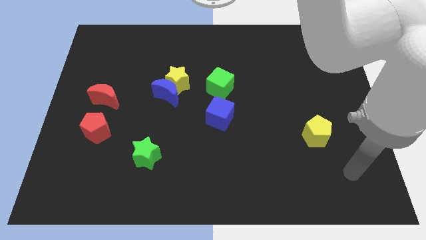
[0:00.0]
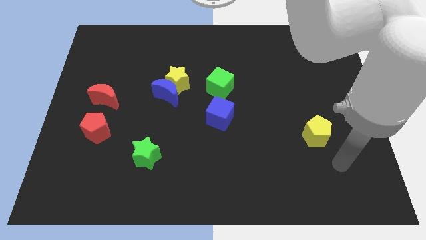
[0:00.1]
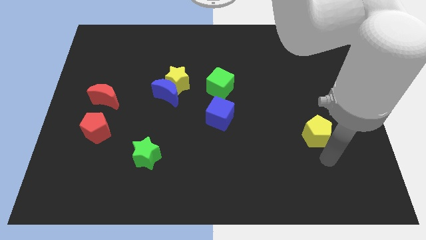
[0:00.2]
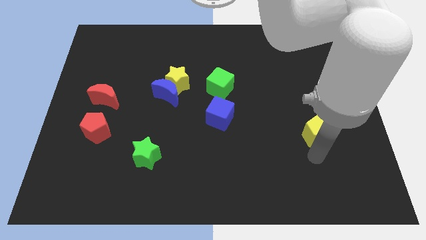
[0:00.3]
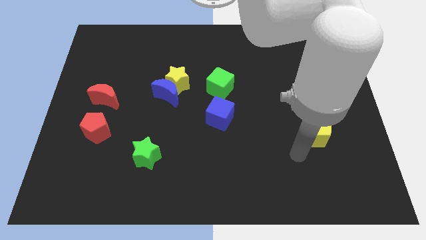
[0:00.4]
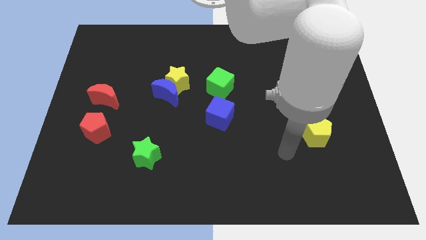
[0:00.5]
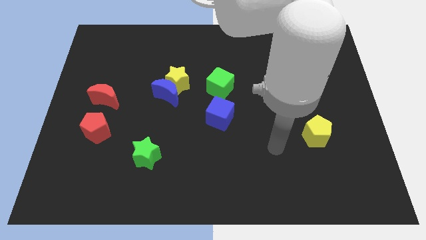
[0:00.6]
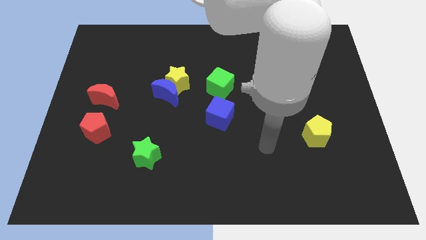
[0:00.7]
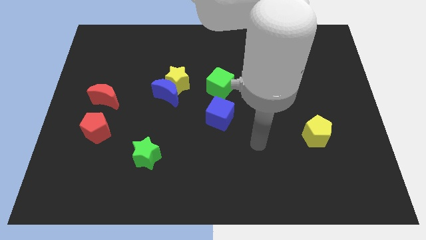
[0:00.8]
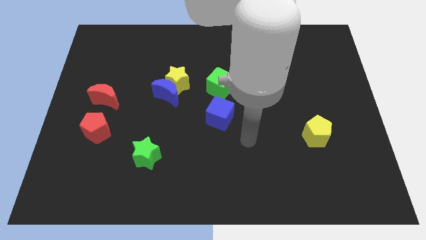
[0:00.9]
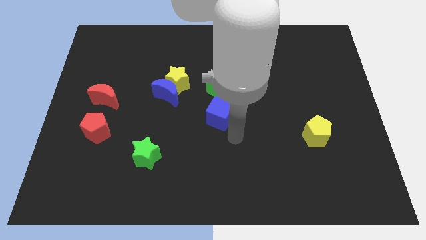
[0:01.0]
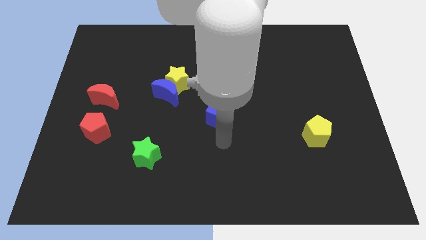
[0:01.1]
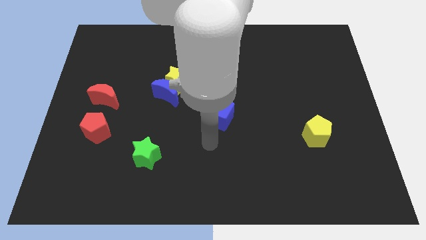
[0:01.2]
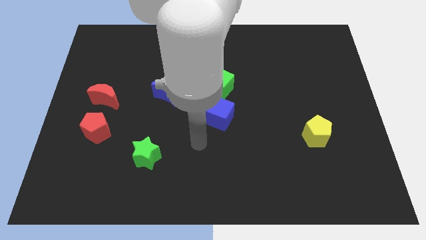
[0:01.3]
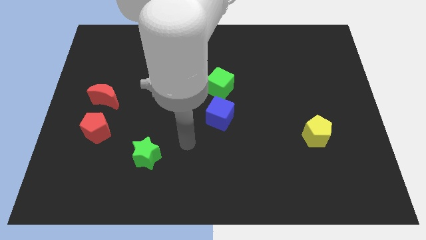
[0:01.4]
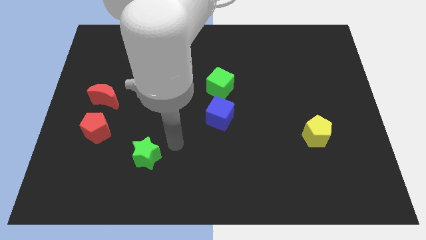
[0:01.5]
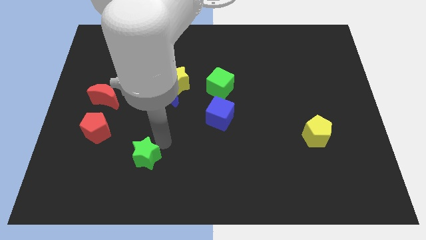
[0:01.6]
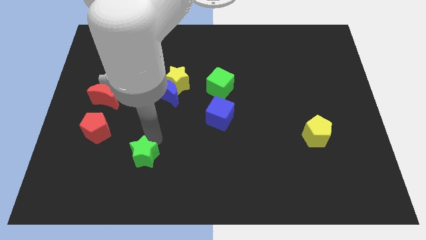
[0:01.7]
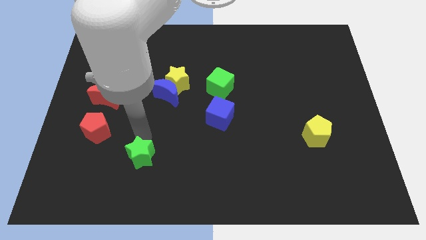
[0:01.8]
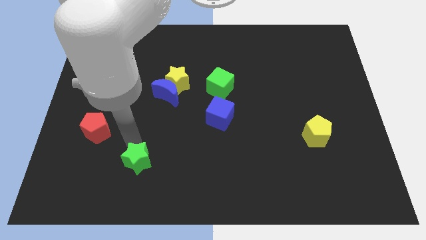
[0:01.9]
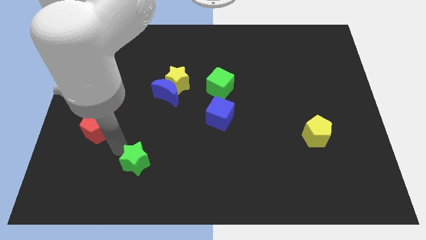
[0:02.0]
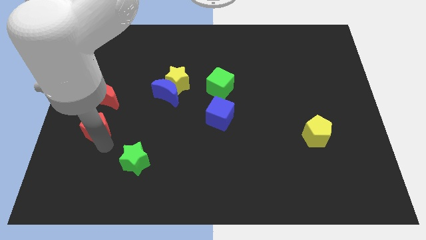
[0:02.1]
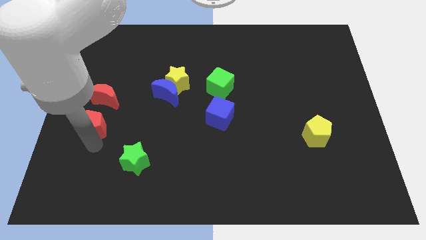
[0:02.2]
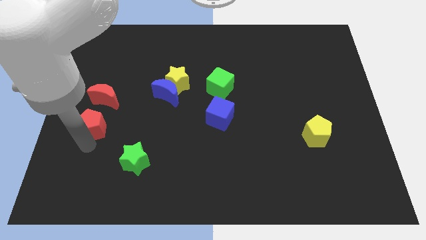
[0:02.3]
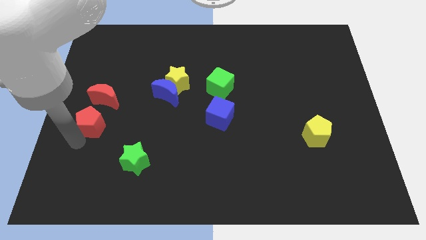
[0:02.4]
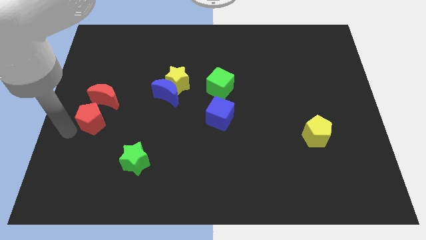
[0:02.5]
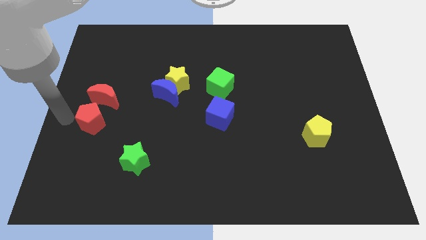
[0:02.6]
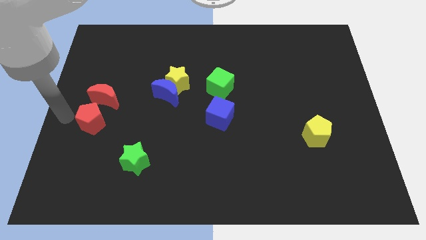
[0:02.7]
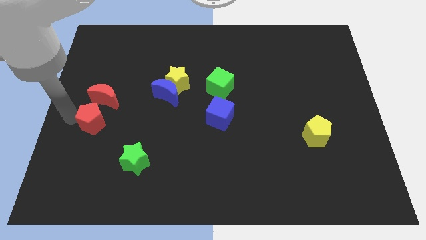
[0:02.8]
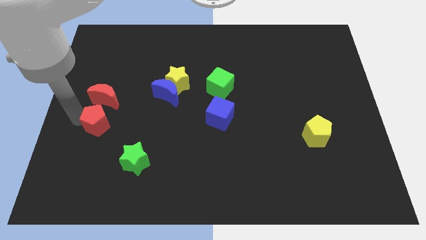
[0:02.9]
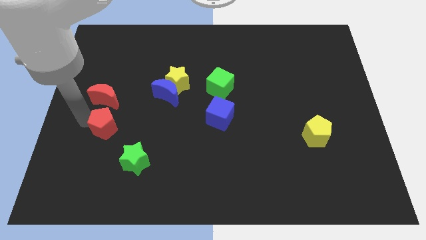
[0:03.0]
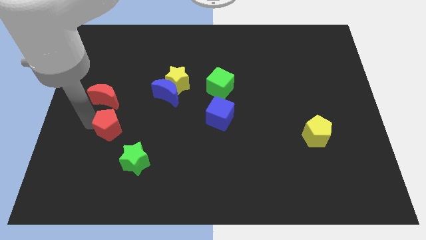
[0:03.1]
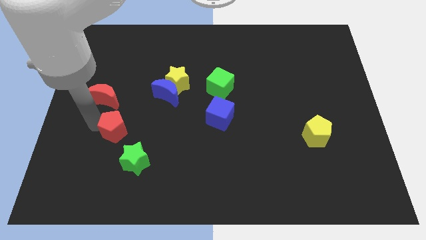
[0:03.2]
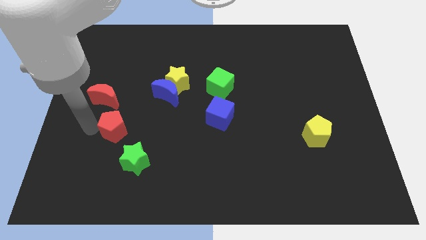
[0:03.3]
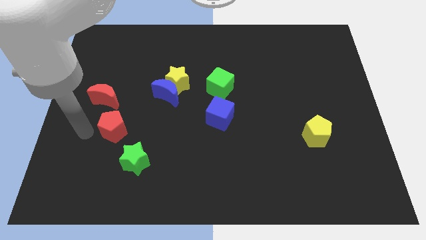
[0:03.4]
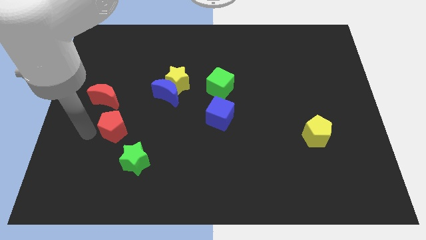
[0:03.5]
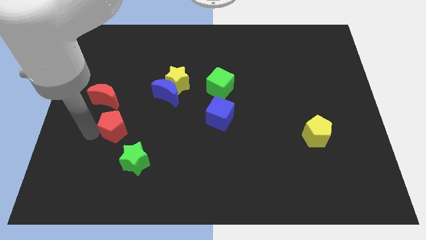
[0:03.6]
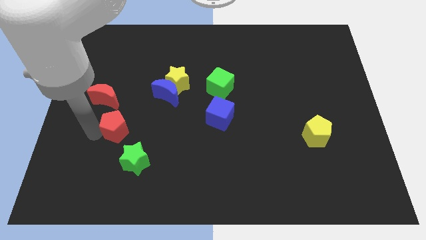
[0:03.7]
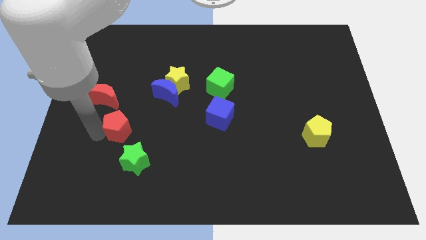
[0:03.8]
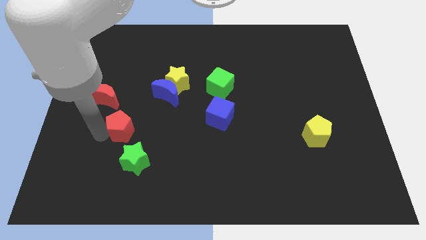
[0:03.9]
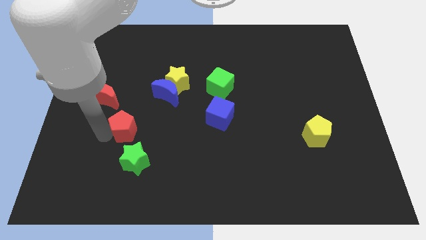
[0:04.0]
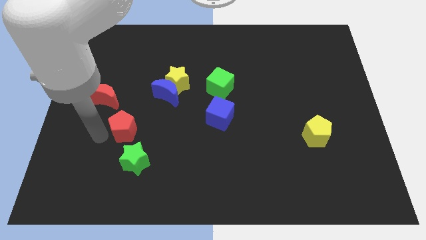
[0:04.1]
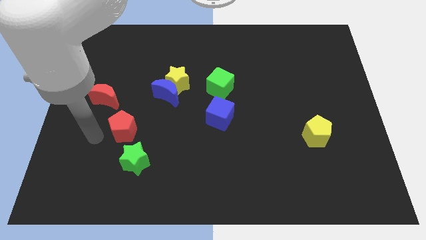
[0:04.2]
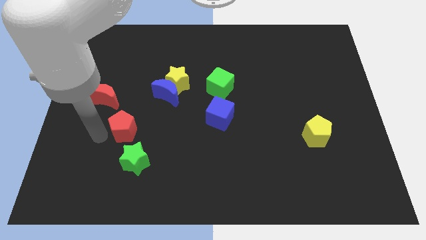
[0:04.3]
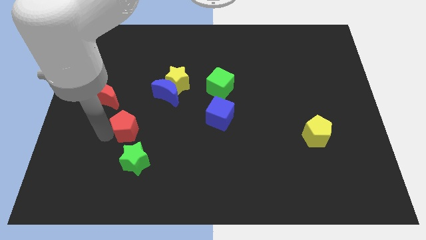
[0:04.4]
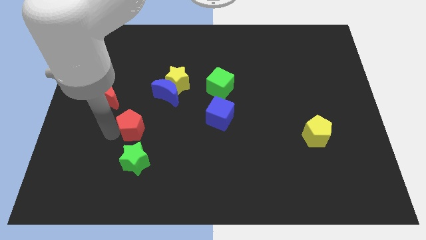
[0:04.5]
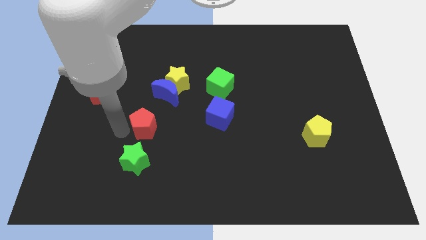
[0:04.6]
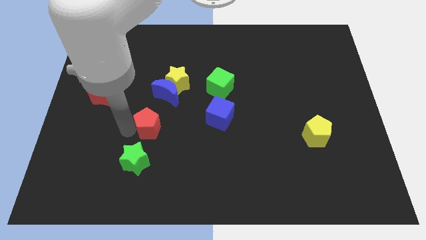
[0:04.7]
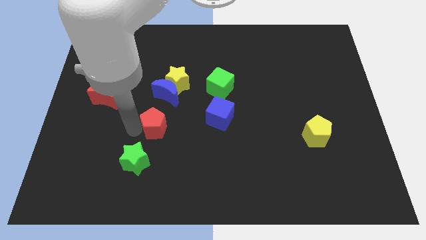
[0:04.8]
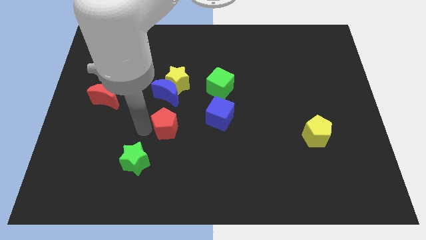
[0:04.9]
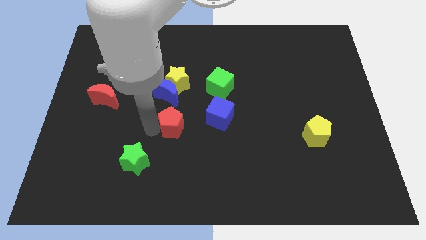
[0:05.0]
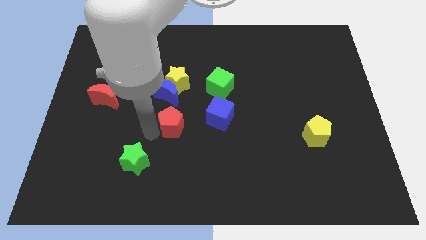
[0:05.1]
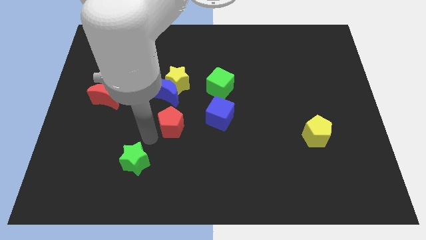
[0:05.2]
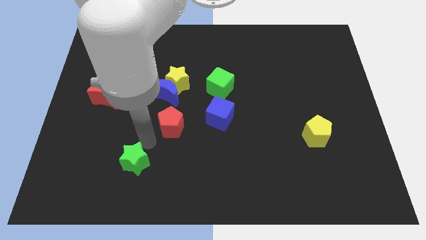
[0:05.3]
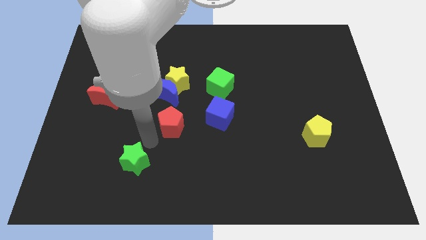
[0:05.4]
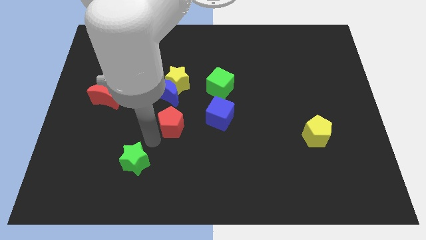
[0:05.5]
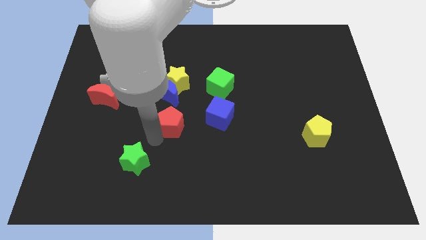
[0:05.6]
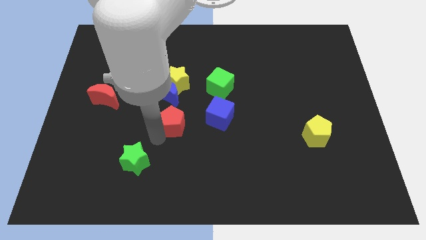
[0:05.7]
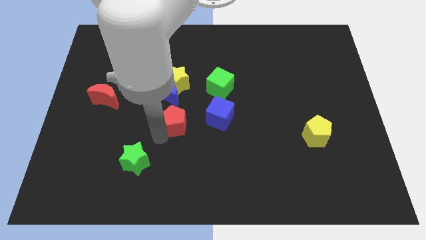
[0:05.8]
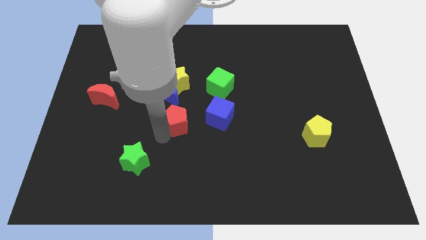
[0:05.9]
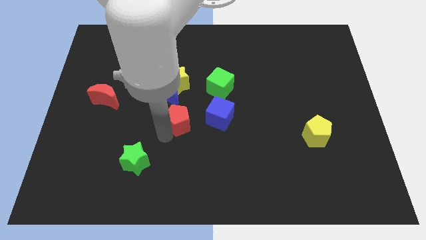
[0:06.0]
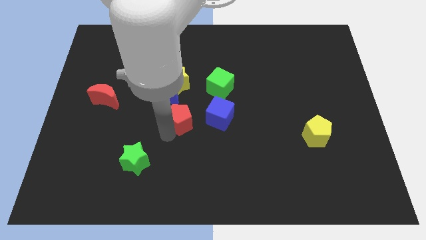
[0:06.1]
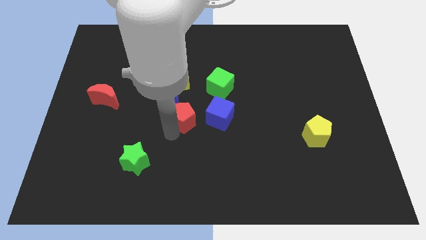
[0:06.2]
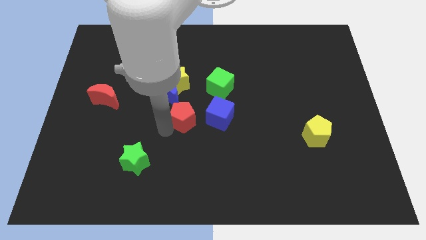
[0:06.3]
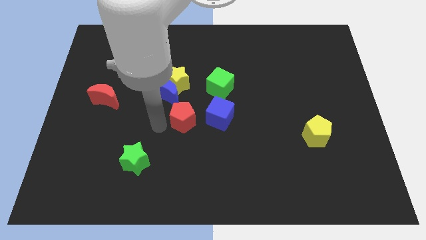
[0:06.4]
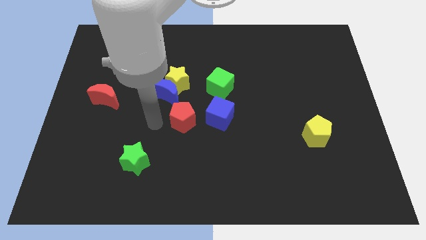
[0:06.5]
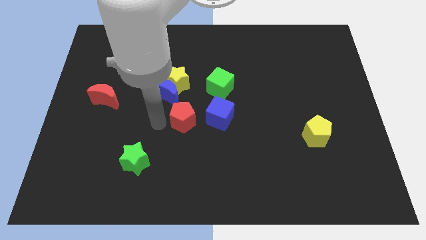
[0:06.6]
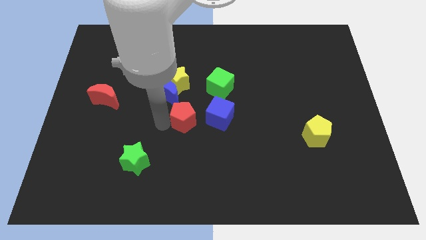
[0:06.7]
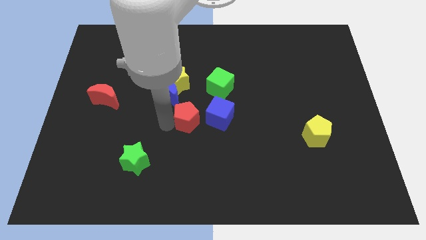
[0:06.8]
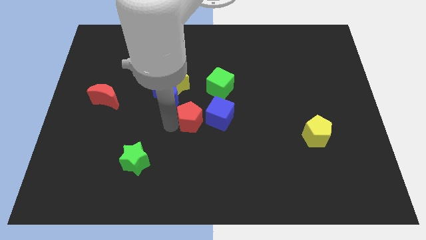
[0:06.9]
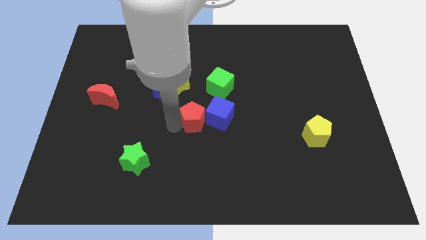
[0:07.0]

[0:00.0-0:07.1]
slide the red pentagon next to the blue cube
